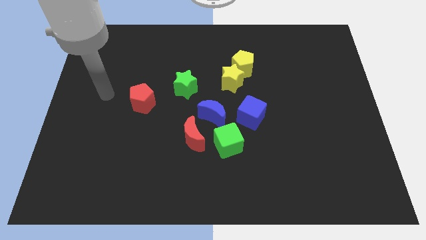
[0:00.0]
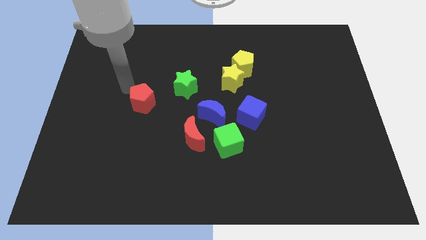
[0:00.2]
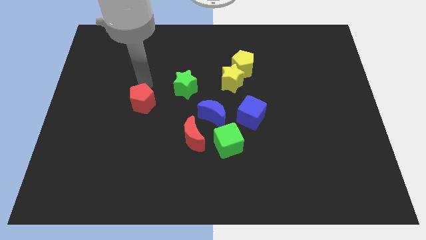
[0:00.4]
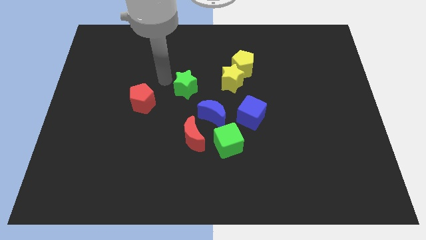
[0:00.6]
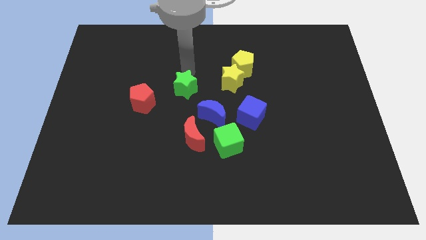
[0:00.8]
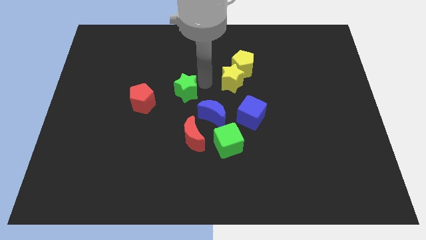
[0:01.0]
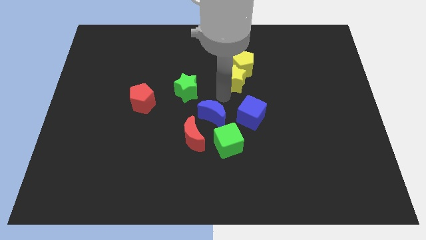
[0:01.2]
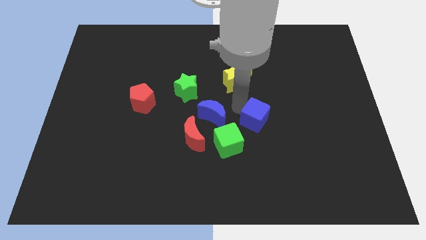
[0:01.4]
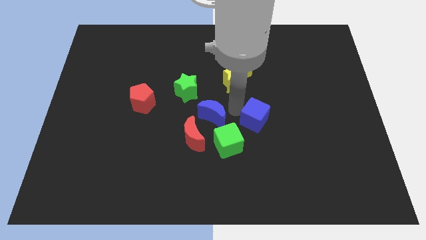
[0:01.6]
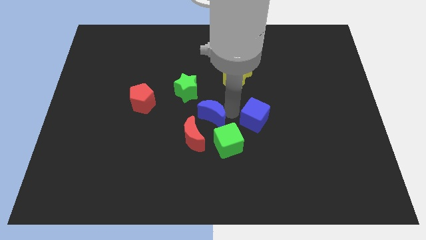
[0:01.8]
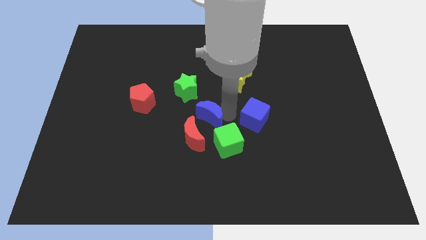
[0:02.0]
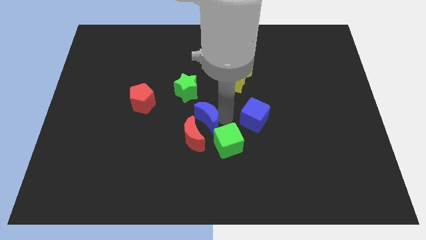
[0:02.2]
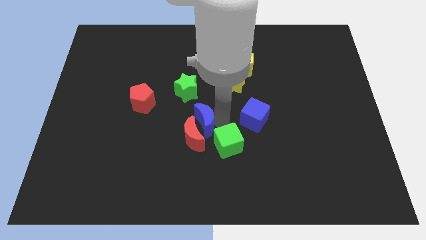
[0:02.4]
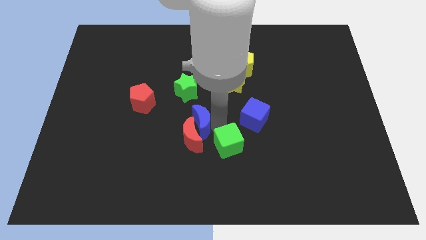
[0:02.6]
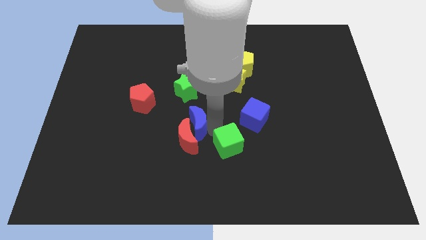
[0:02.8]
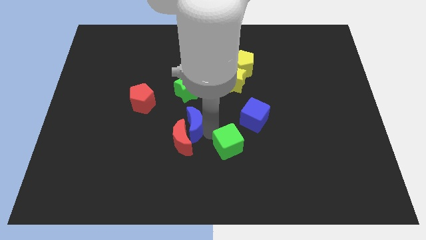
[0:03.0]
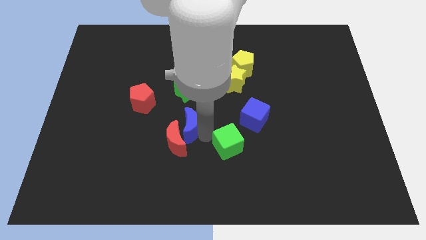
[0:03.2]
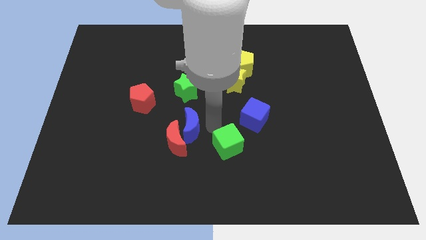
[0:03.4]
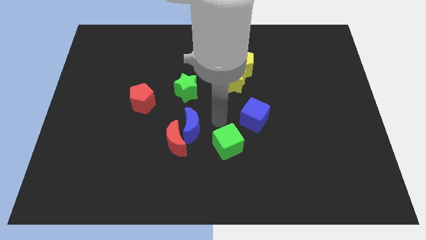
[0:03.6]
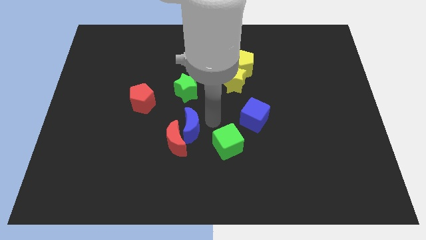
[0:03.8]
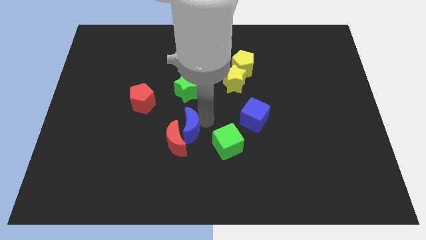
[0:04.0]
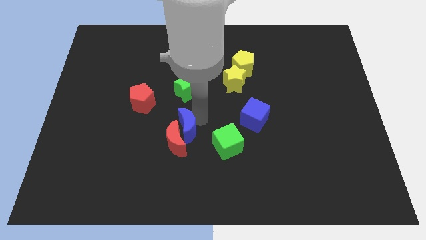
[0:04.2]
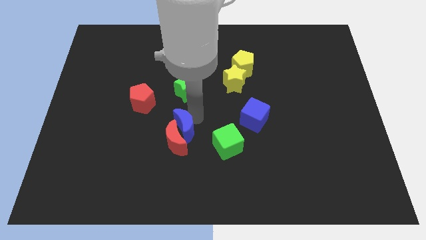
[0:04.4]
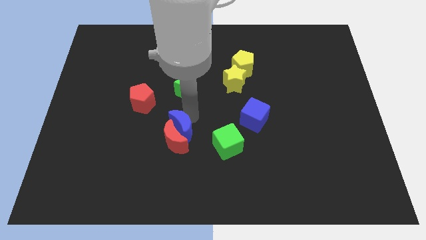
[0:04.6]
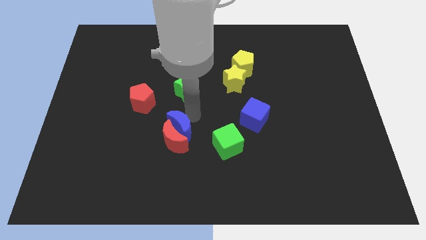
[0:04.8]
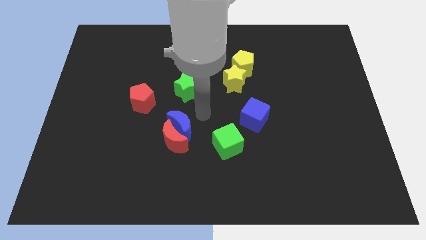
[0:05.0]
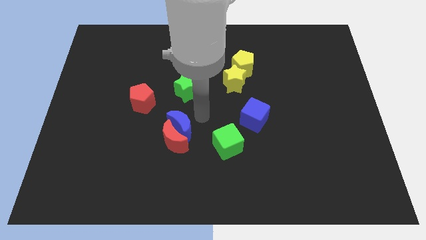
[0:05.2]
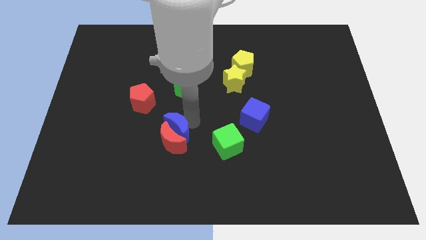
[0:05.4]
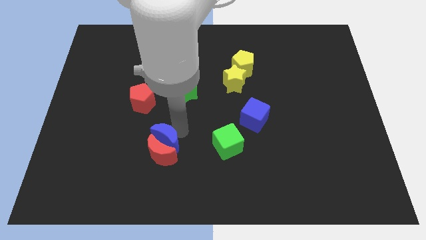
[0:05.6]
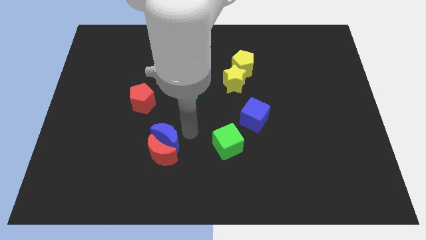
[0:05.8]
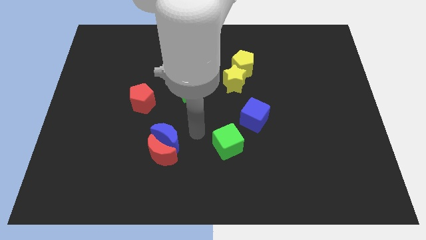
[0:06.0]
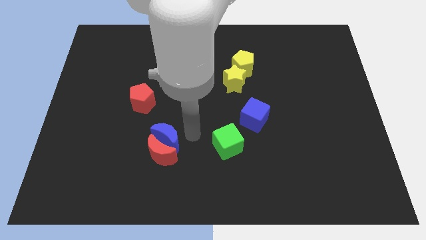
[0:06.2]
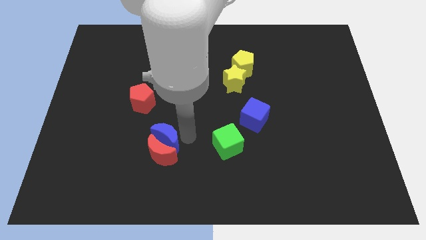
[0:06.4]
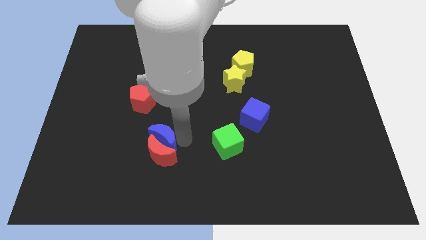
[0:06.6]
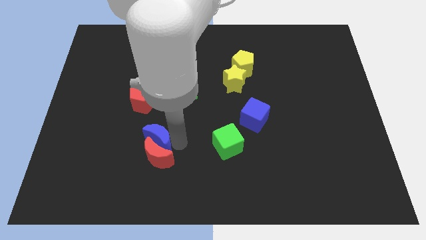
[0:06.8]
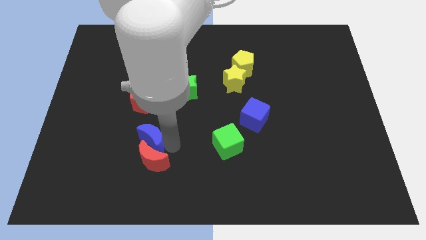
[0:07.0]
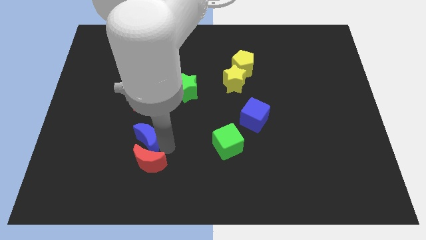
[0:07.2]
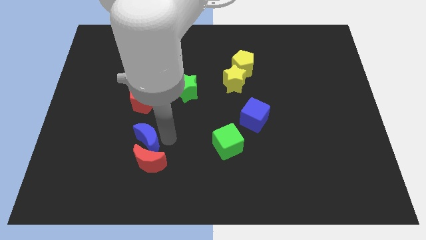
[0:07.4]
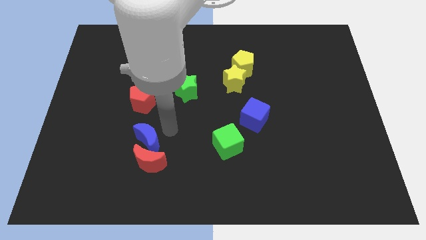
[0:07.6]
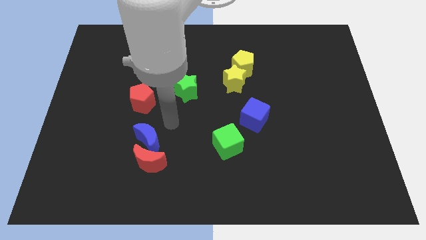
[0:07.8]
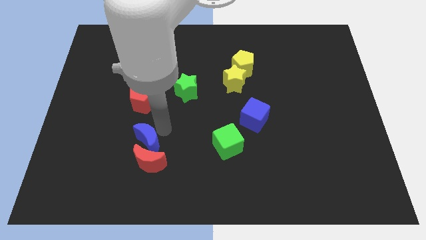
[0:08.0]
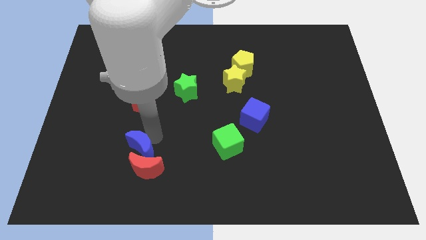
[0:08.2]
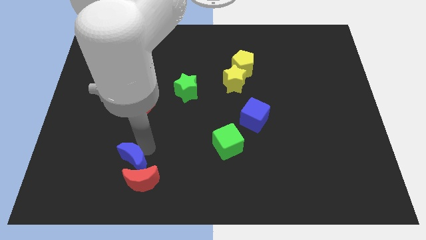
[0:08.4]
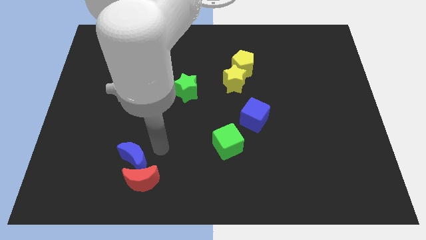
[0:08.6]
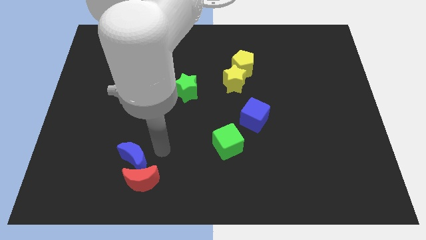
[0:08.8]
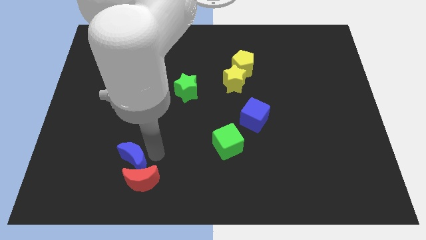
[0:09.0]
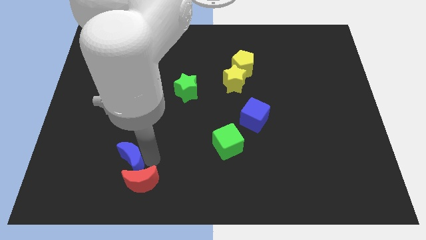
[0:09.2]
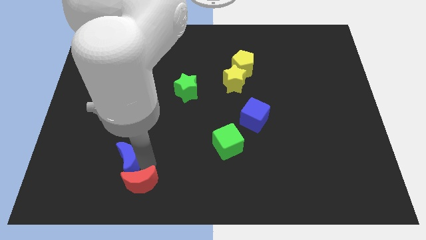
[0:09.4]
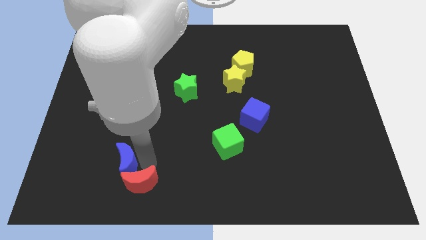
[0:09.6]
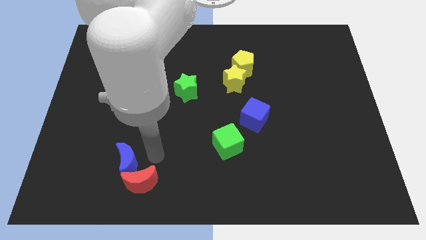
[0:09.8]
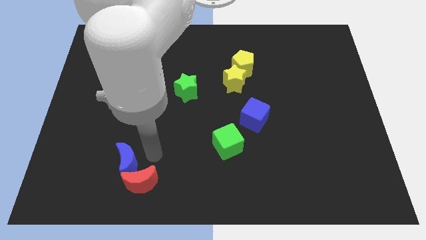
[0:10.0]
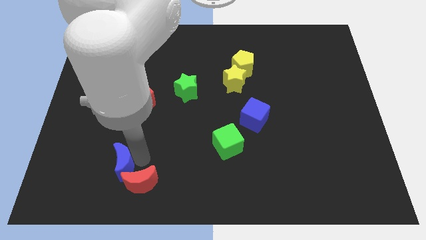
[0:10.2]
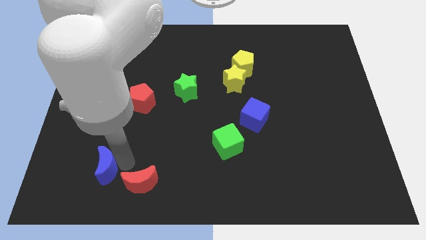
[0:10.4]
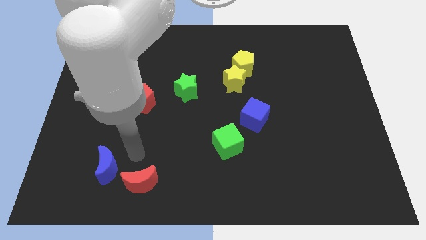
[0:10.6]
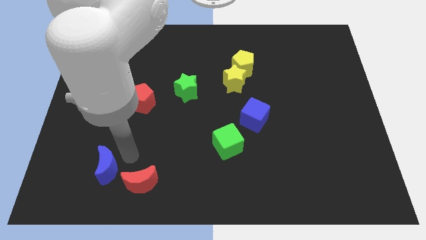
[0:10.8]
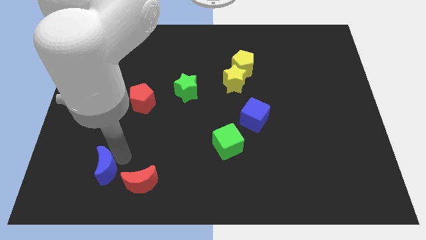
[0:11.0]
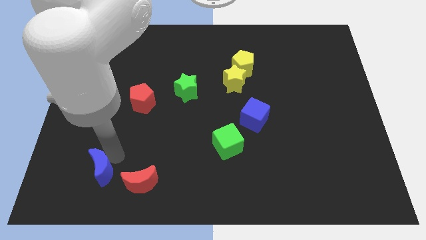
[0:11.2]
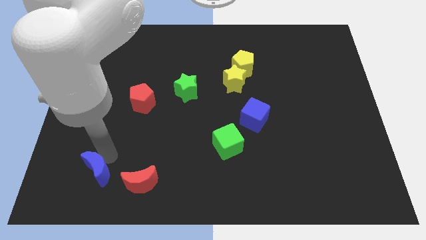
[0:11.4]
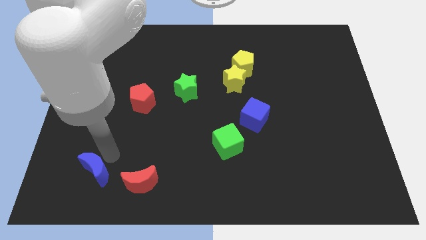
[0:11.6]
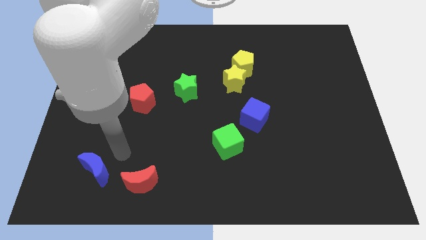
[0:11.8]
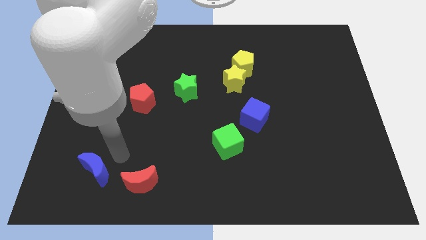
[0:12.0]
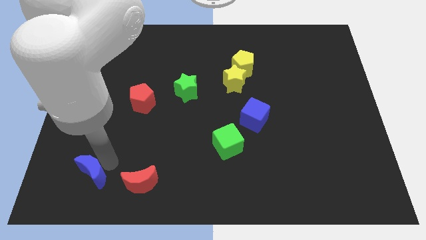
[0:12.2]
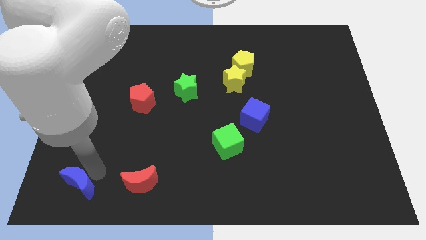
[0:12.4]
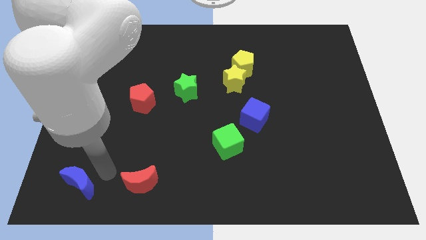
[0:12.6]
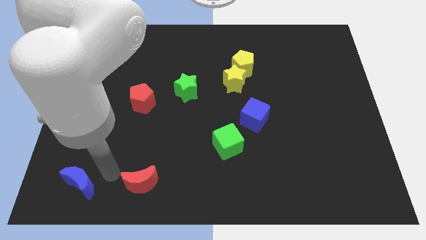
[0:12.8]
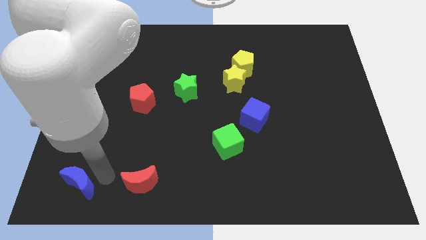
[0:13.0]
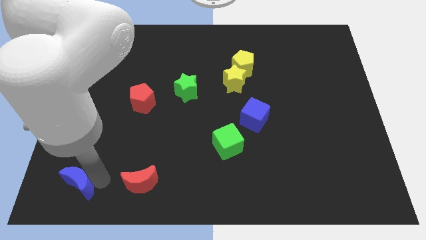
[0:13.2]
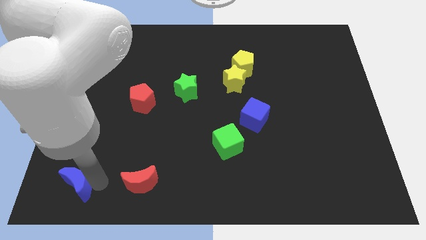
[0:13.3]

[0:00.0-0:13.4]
put the blue moon to the bottom left
